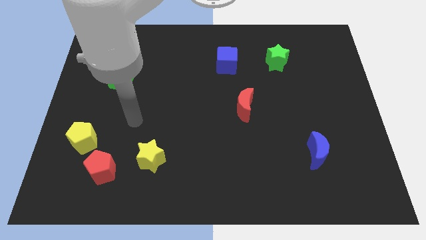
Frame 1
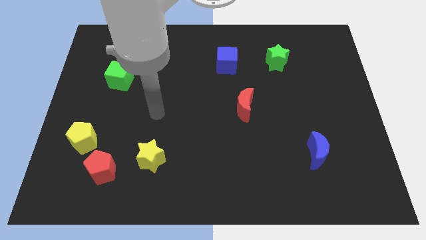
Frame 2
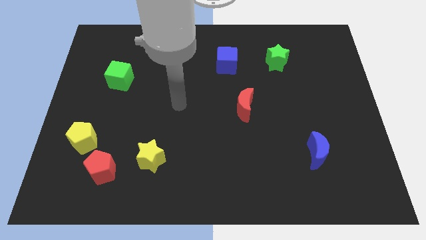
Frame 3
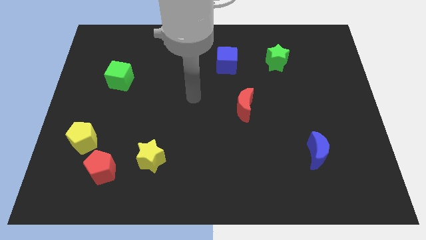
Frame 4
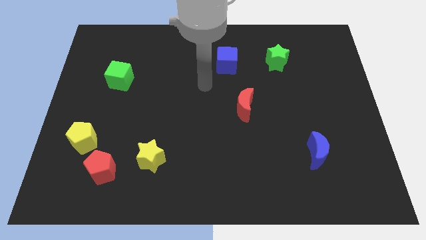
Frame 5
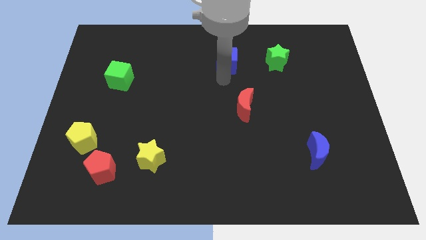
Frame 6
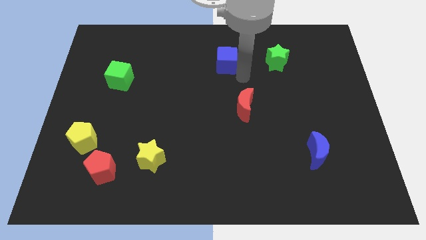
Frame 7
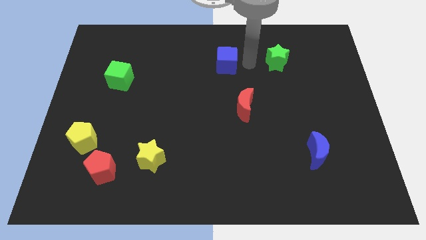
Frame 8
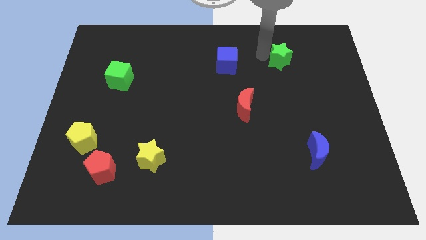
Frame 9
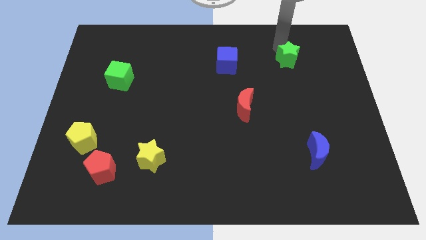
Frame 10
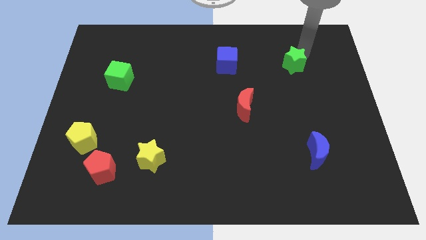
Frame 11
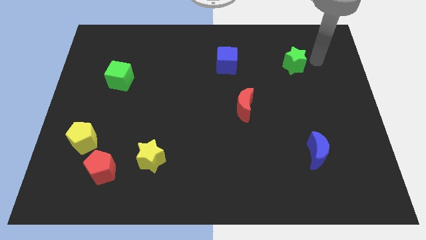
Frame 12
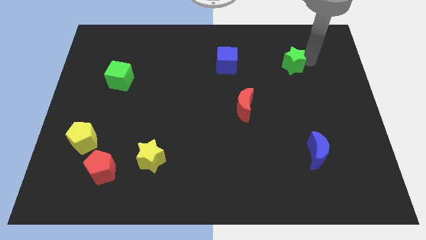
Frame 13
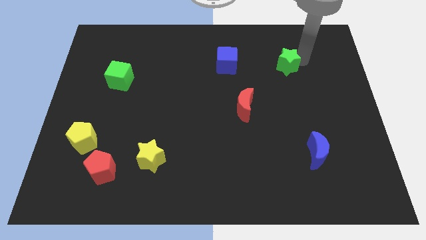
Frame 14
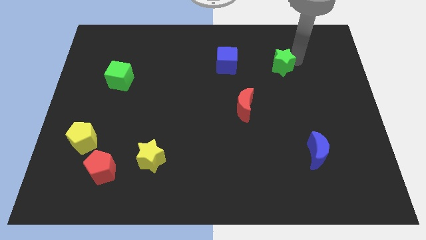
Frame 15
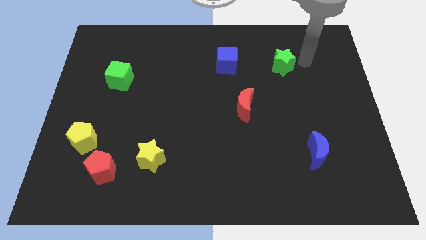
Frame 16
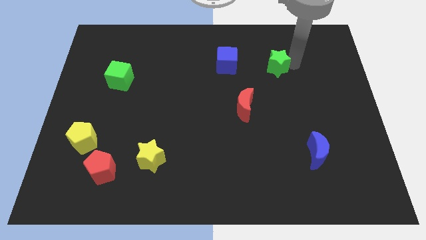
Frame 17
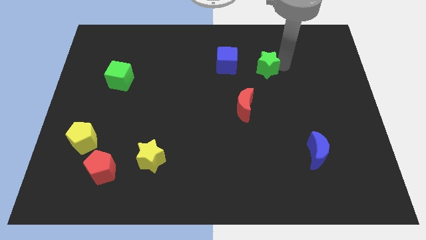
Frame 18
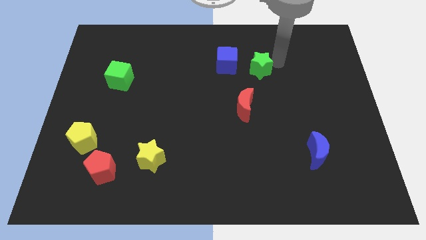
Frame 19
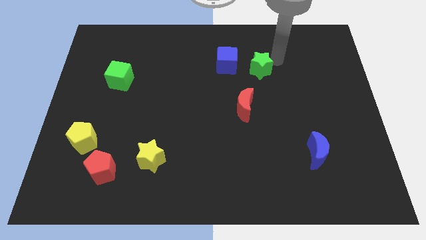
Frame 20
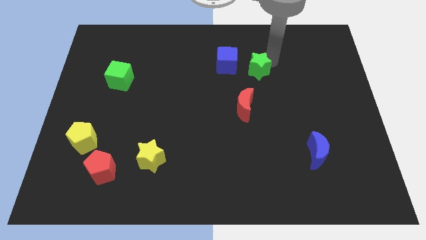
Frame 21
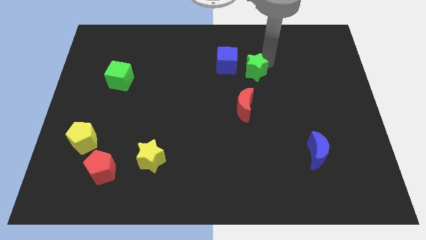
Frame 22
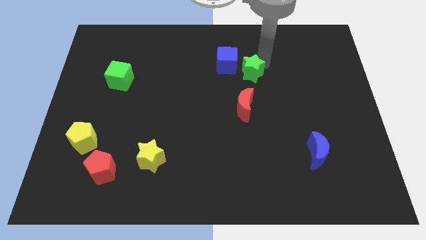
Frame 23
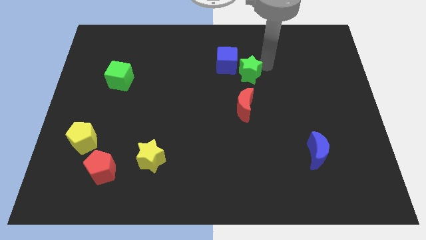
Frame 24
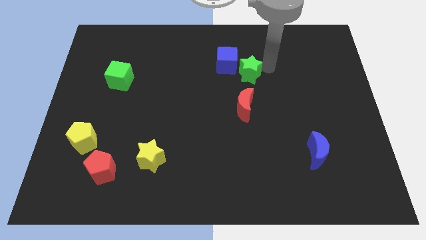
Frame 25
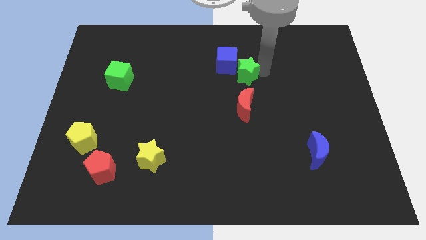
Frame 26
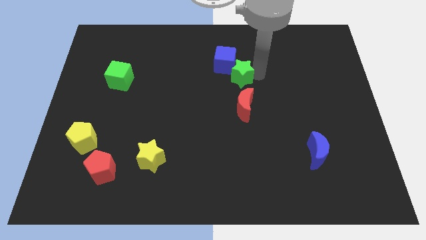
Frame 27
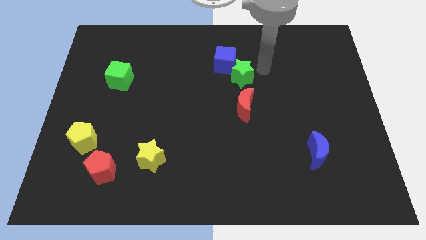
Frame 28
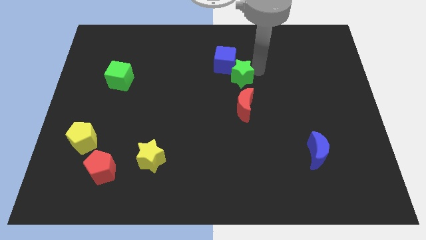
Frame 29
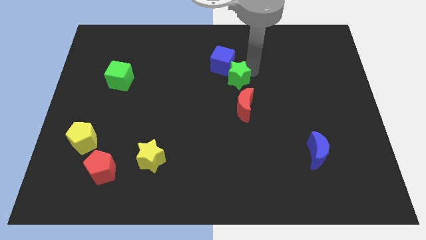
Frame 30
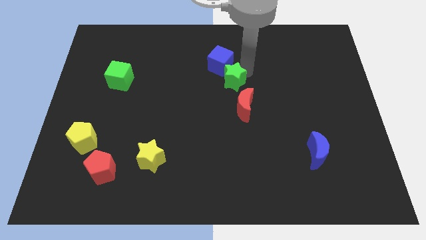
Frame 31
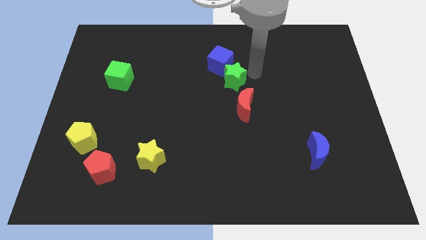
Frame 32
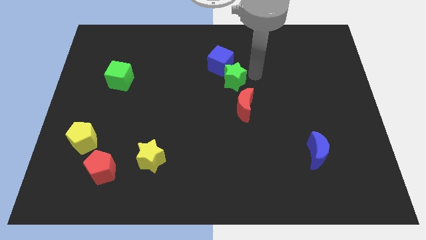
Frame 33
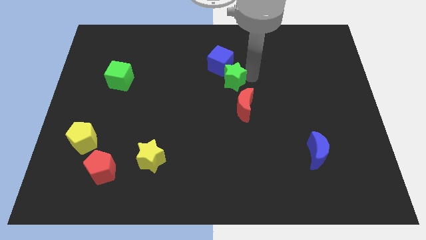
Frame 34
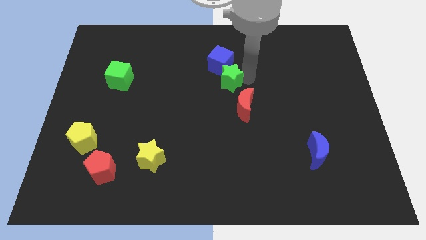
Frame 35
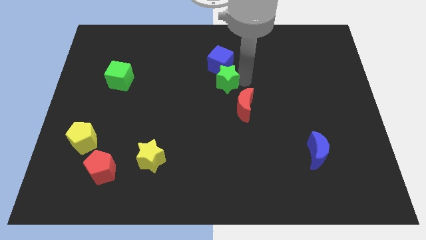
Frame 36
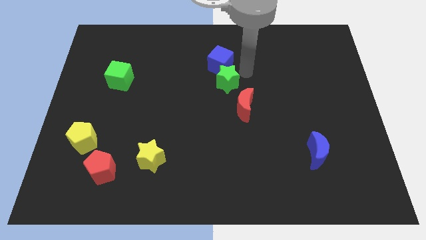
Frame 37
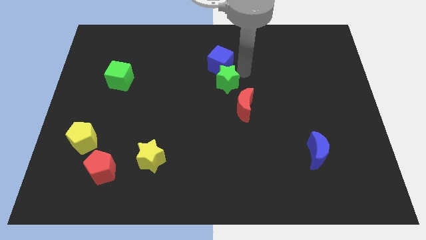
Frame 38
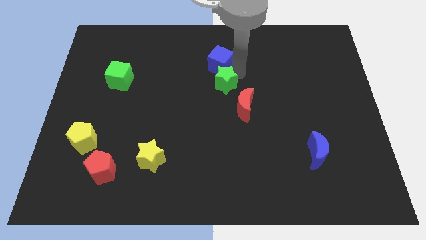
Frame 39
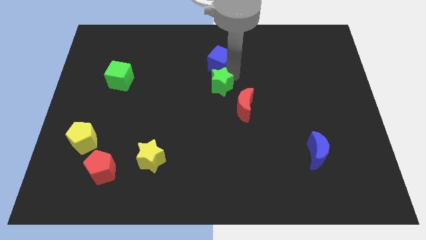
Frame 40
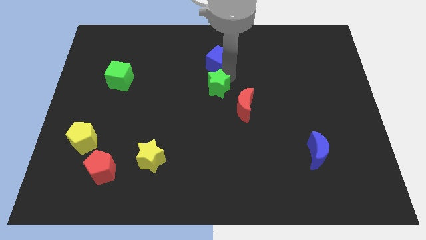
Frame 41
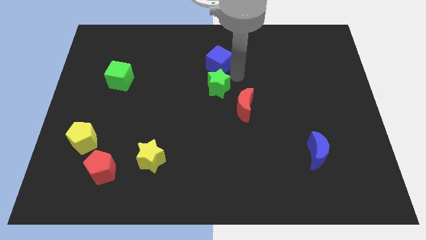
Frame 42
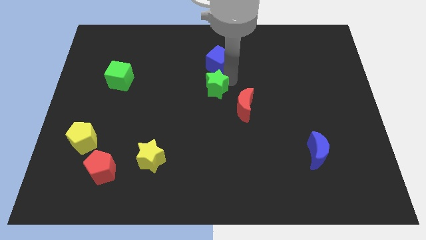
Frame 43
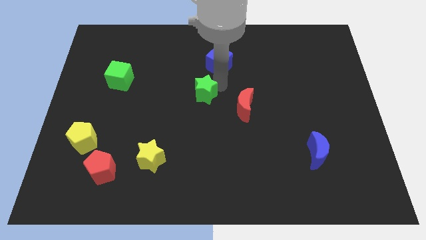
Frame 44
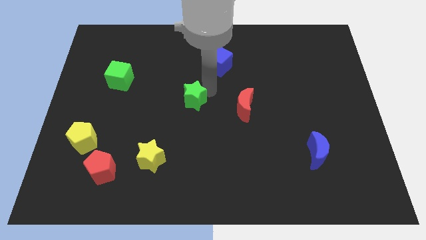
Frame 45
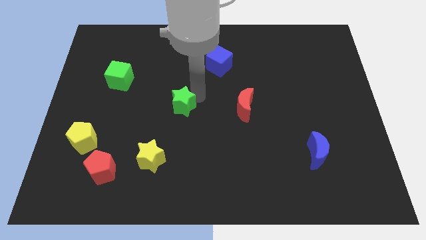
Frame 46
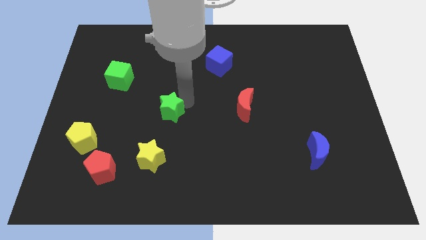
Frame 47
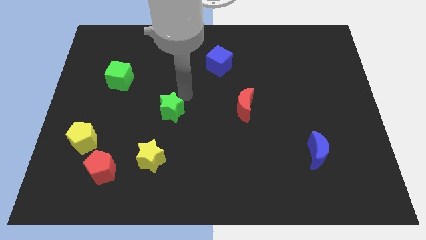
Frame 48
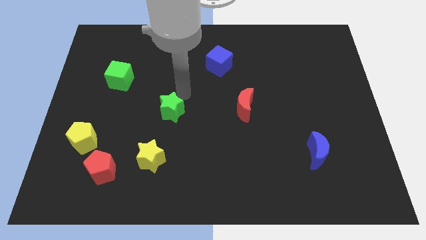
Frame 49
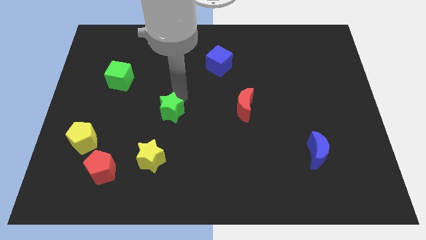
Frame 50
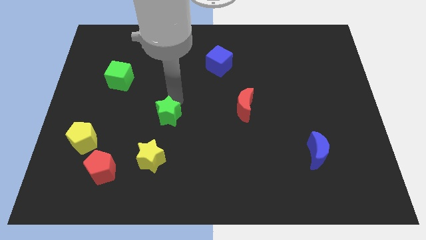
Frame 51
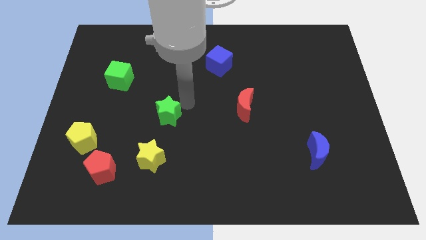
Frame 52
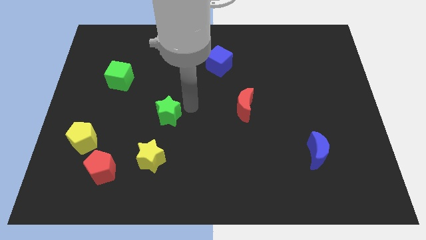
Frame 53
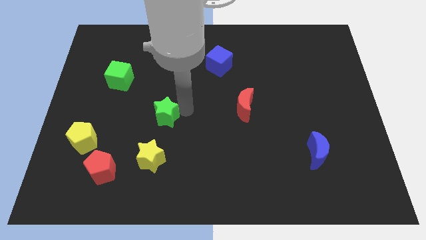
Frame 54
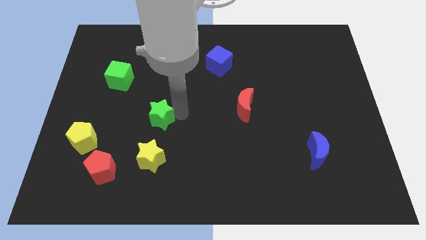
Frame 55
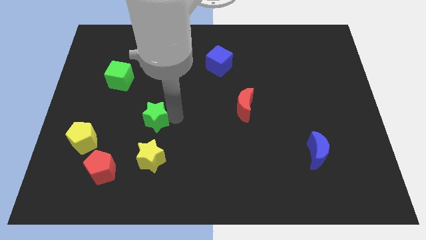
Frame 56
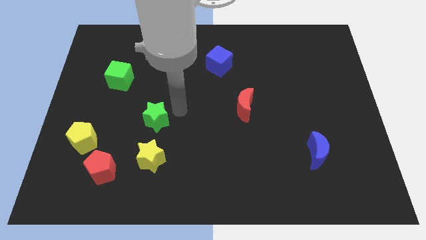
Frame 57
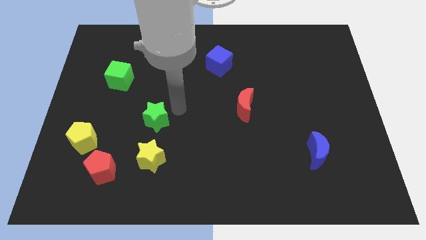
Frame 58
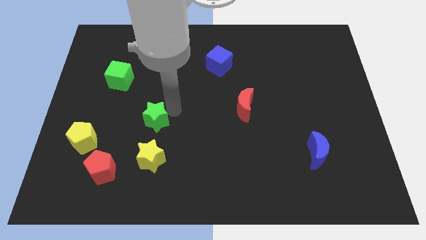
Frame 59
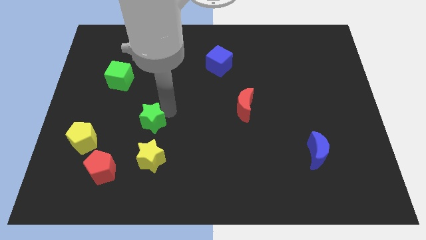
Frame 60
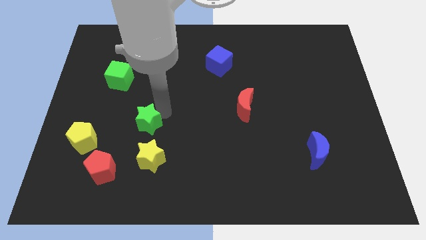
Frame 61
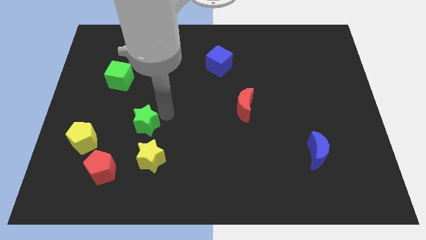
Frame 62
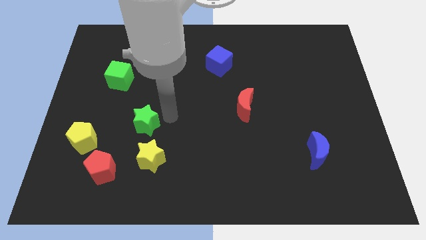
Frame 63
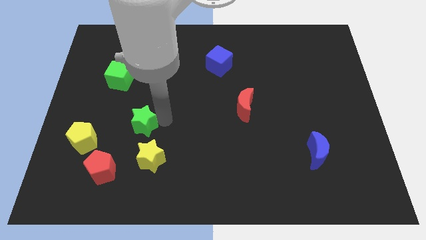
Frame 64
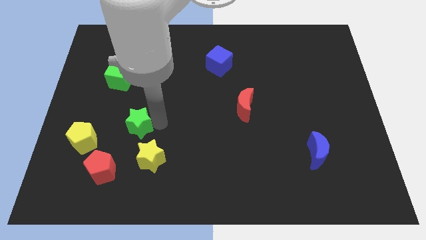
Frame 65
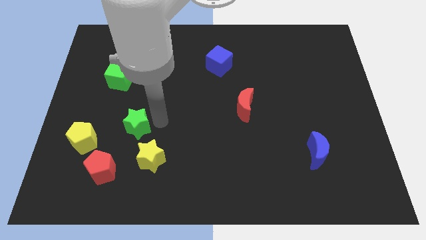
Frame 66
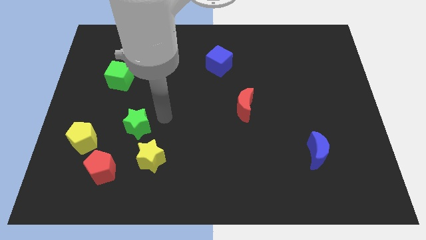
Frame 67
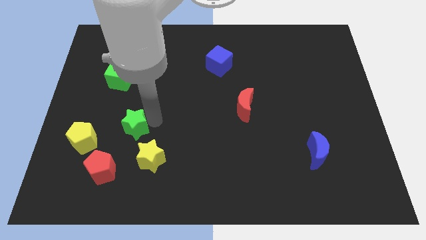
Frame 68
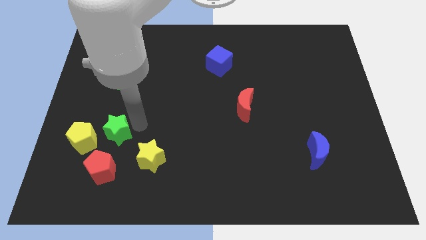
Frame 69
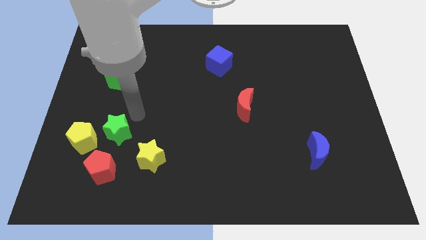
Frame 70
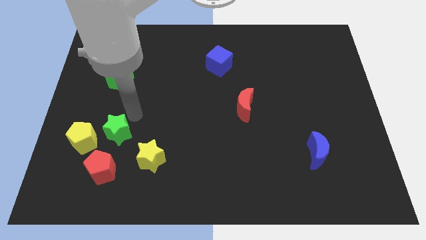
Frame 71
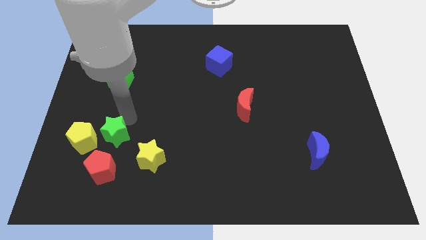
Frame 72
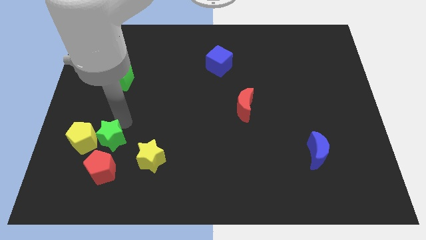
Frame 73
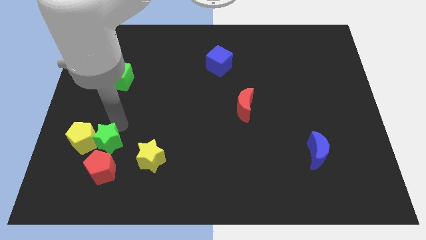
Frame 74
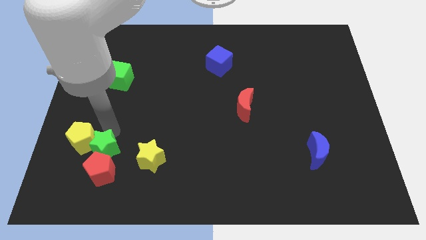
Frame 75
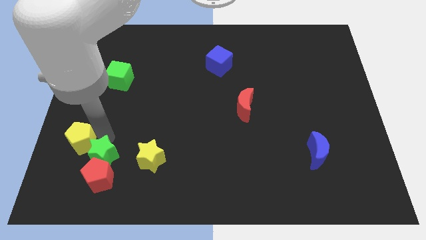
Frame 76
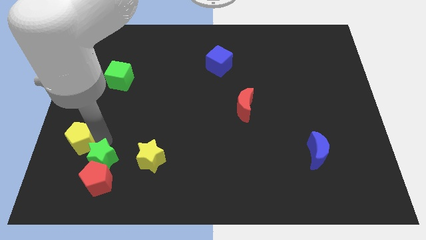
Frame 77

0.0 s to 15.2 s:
move the green star to the bottom side of the yellow pentagon
